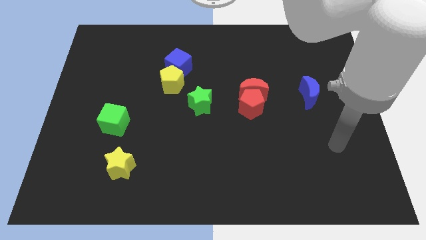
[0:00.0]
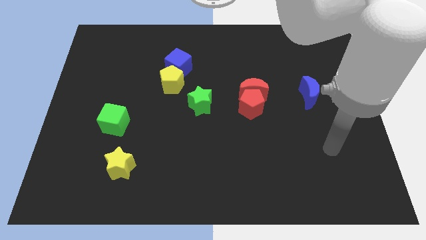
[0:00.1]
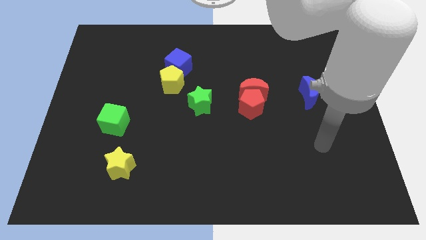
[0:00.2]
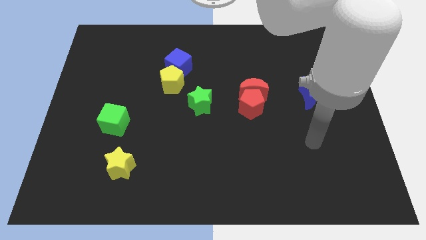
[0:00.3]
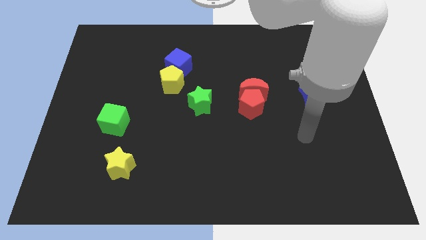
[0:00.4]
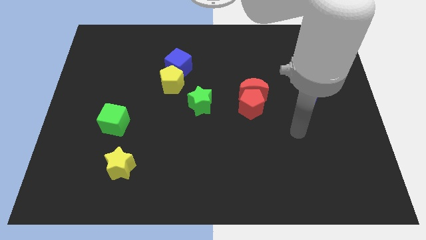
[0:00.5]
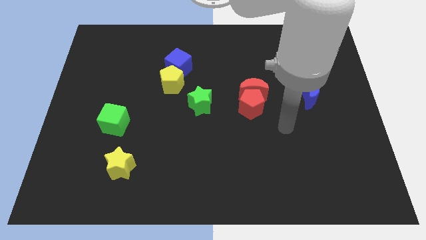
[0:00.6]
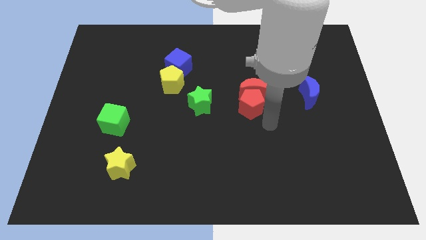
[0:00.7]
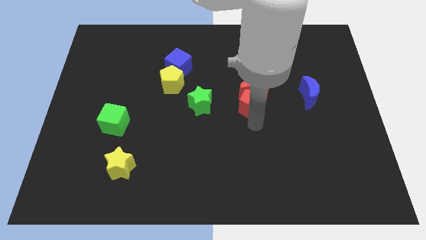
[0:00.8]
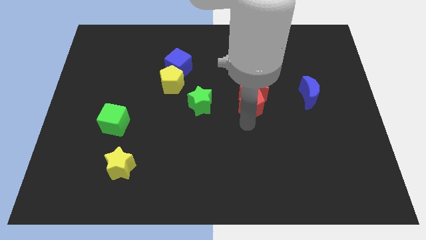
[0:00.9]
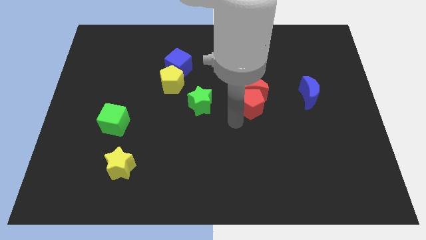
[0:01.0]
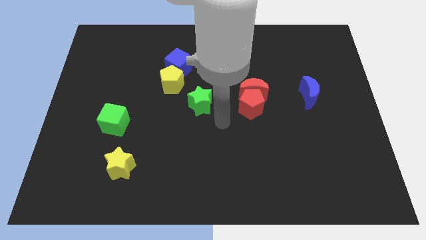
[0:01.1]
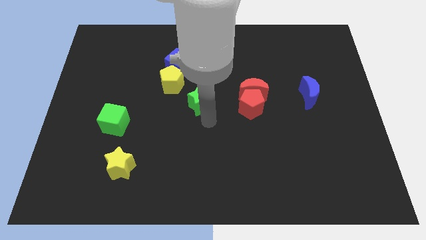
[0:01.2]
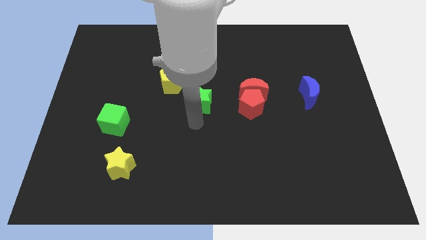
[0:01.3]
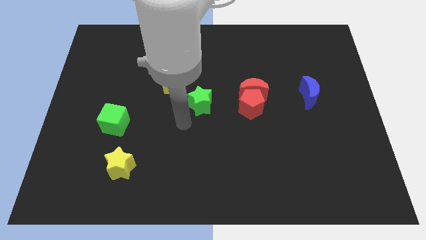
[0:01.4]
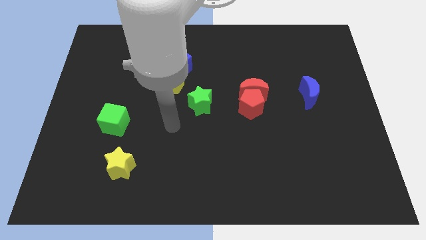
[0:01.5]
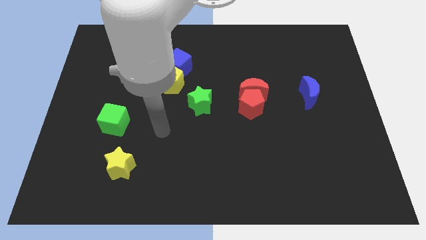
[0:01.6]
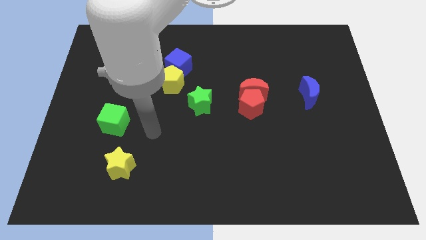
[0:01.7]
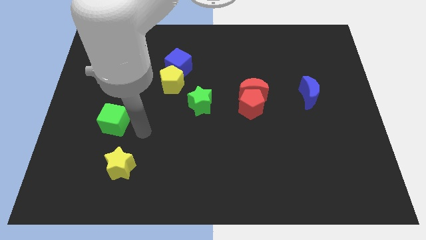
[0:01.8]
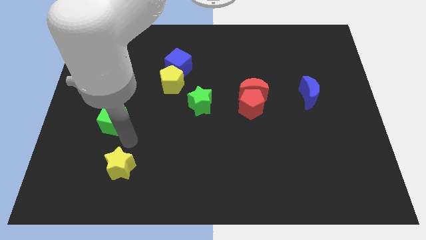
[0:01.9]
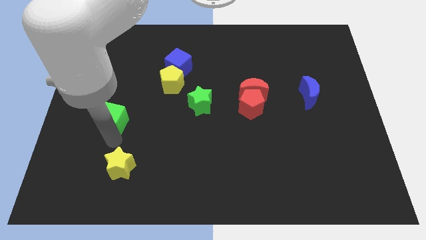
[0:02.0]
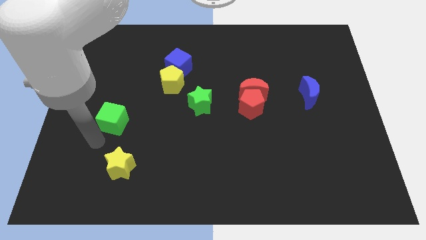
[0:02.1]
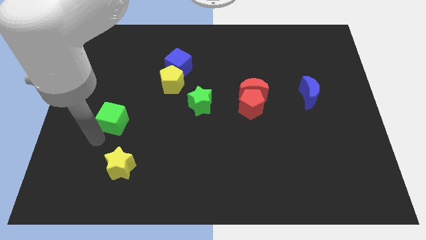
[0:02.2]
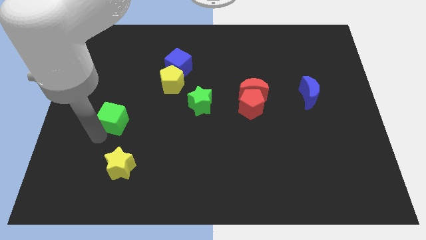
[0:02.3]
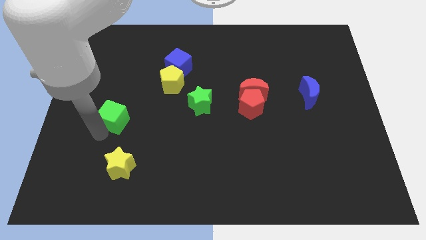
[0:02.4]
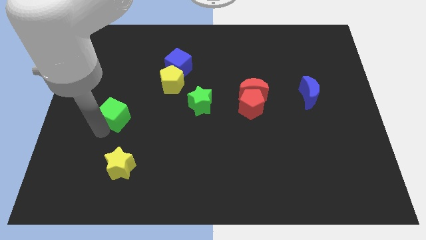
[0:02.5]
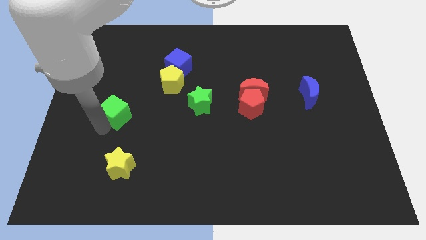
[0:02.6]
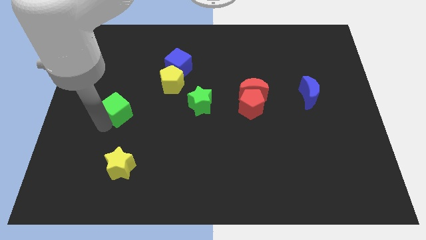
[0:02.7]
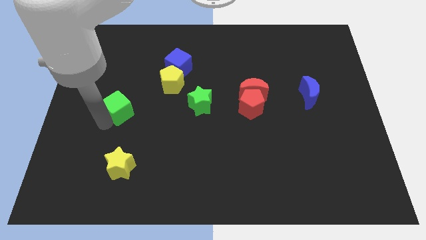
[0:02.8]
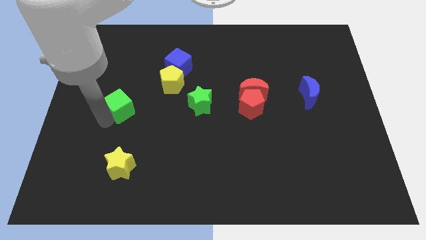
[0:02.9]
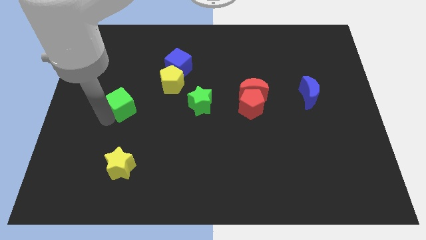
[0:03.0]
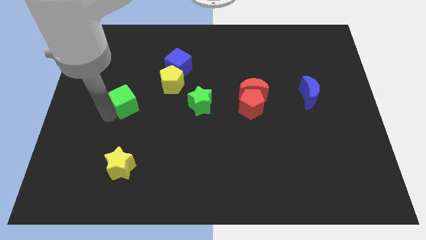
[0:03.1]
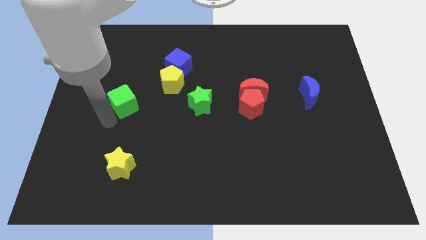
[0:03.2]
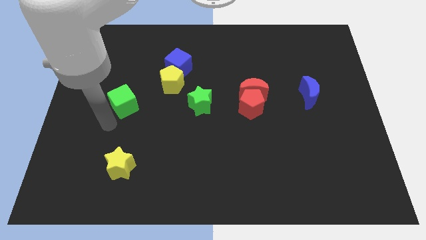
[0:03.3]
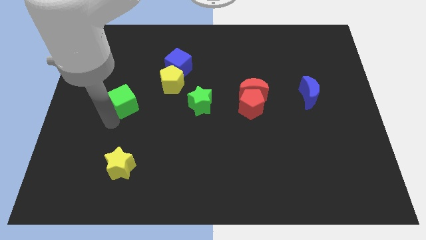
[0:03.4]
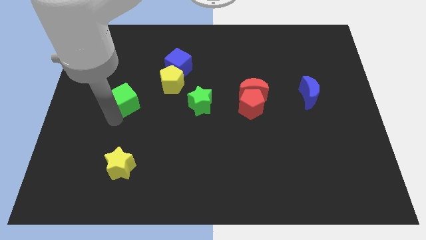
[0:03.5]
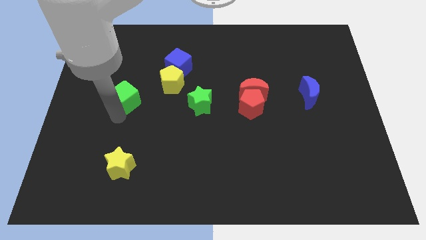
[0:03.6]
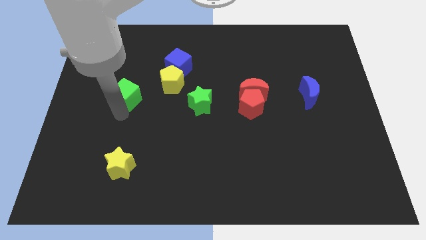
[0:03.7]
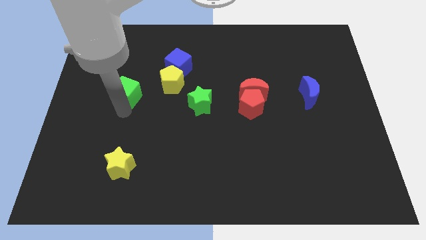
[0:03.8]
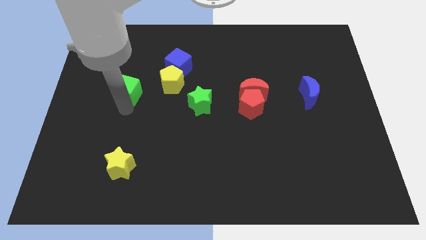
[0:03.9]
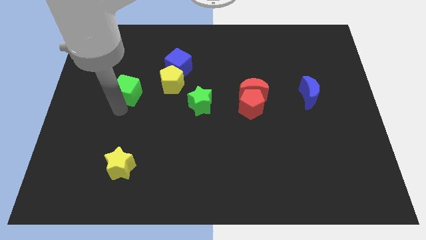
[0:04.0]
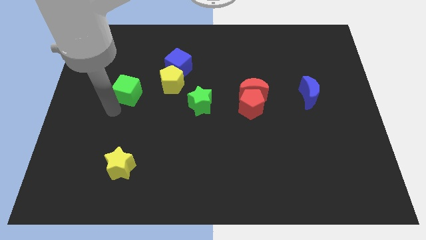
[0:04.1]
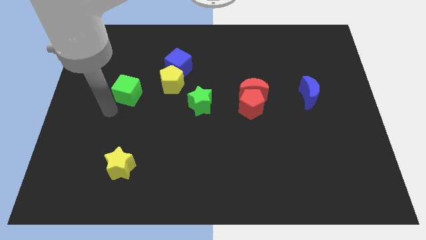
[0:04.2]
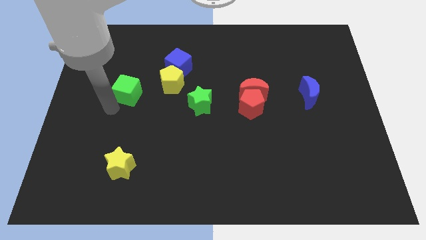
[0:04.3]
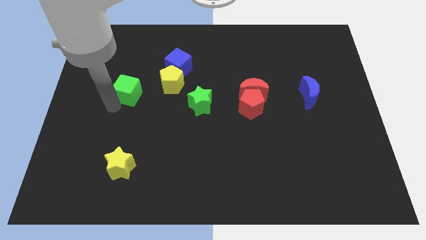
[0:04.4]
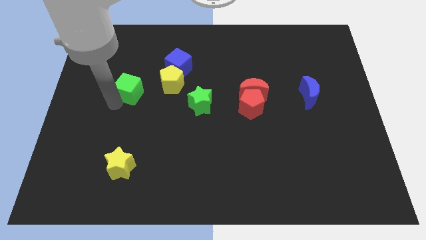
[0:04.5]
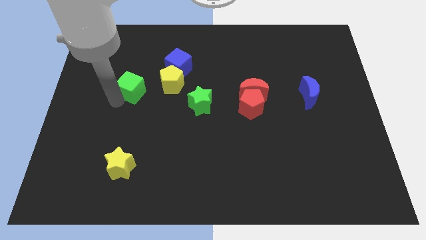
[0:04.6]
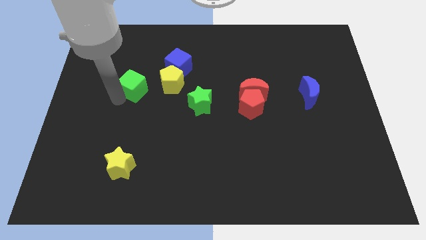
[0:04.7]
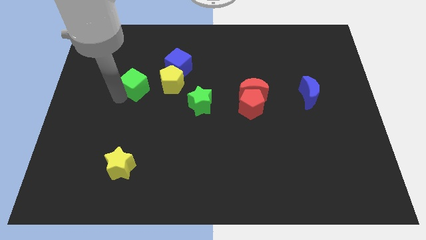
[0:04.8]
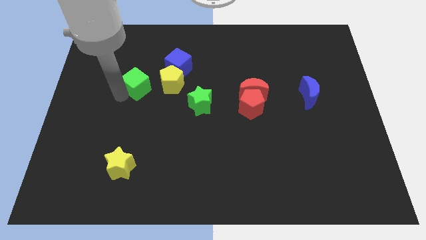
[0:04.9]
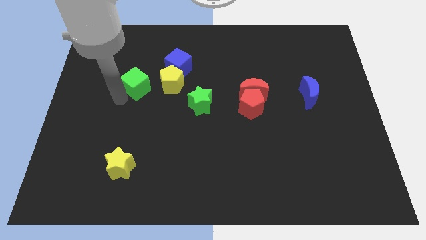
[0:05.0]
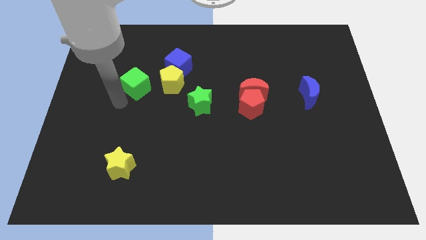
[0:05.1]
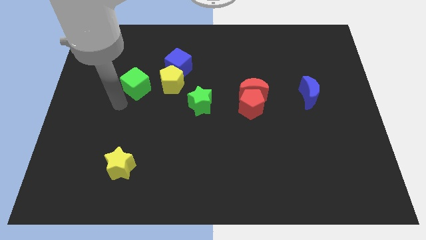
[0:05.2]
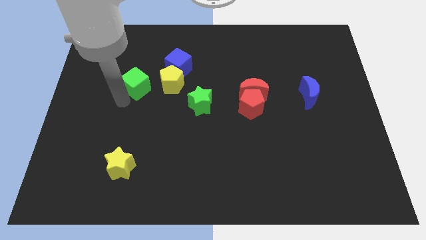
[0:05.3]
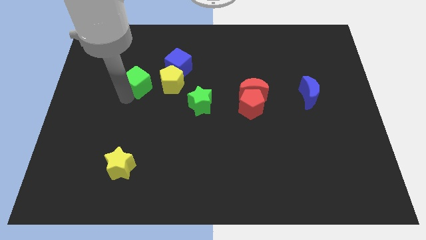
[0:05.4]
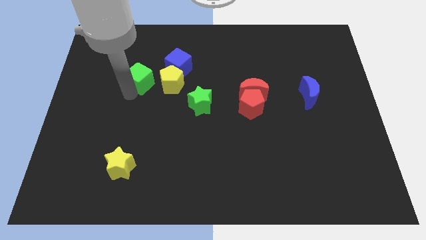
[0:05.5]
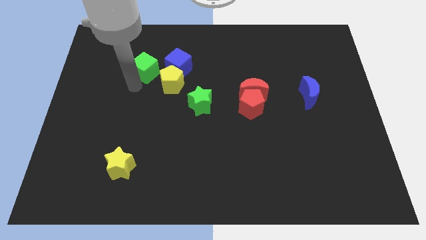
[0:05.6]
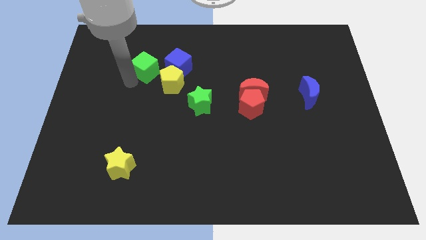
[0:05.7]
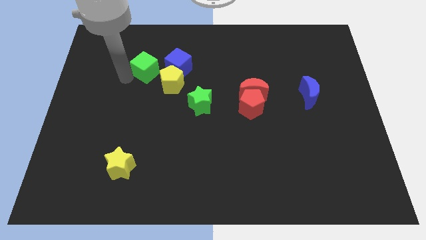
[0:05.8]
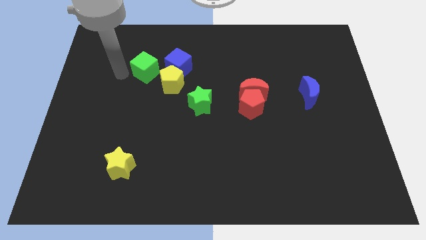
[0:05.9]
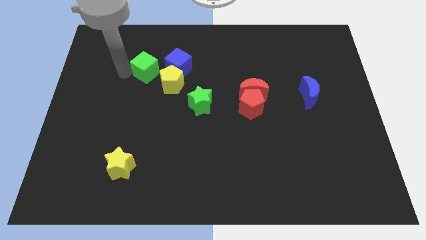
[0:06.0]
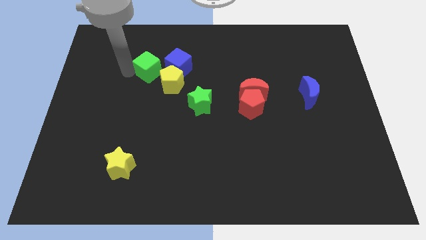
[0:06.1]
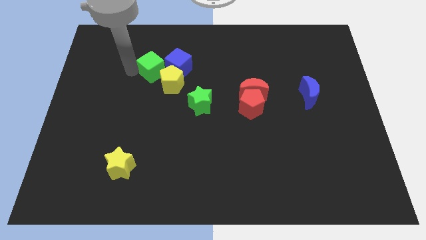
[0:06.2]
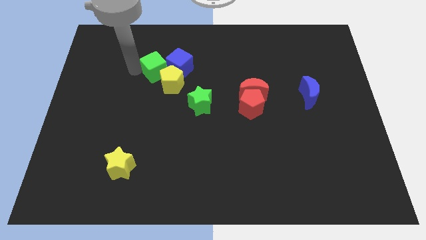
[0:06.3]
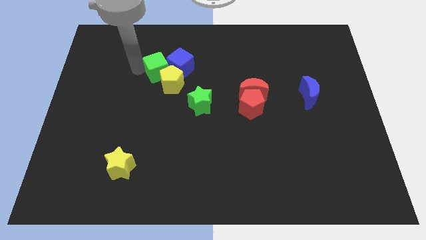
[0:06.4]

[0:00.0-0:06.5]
put the green cube towards the blue cube

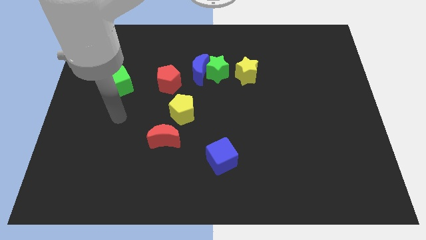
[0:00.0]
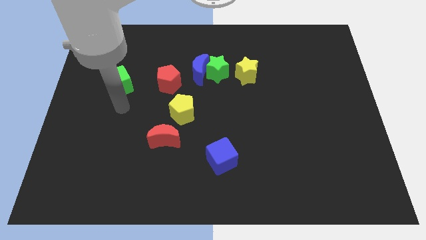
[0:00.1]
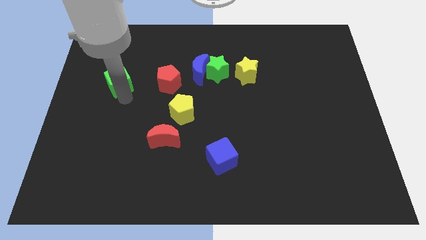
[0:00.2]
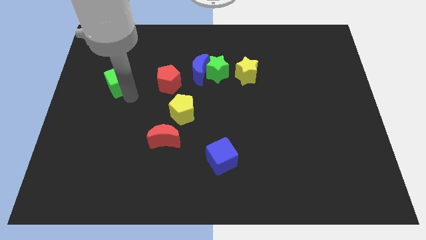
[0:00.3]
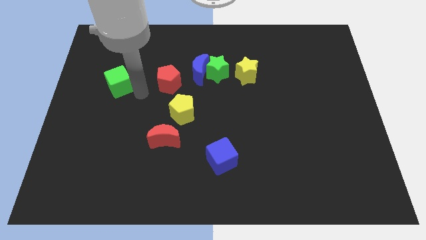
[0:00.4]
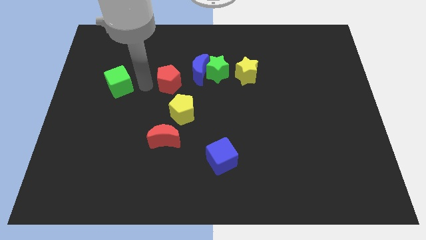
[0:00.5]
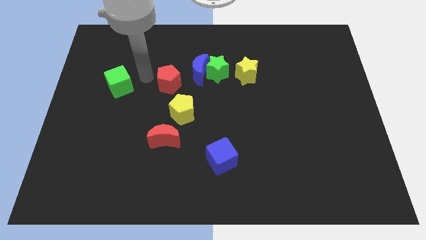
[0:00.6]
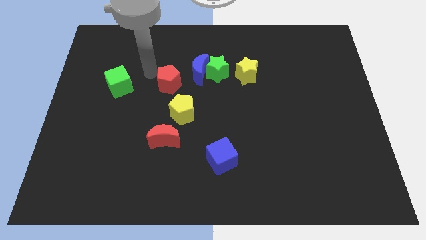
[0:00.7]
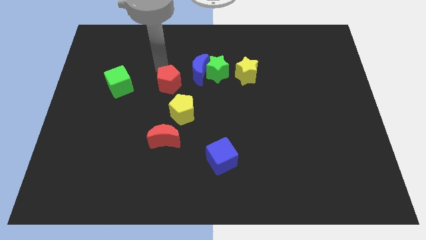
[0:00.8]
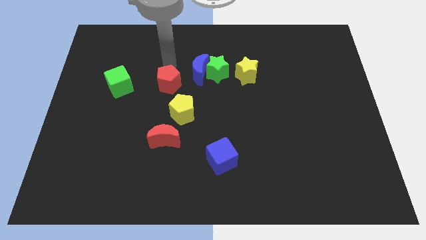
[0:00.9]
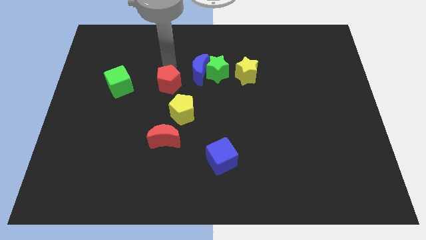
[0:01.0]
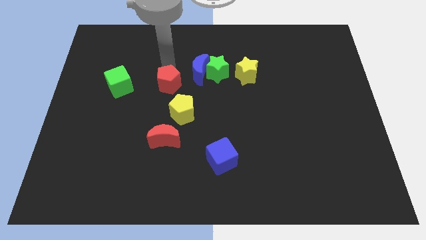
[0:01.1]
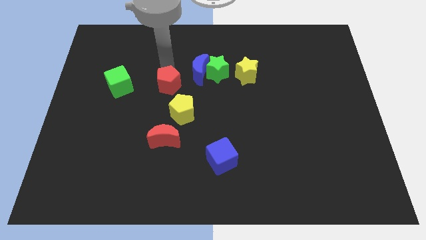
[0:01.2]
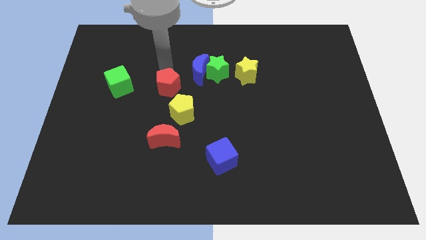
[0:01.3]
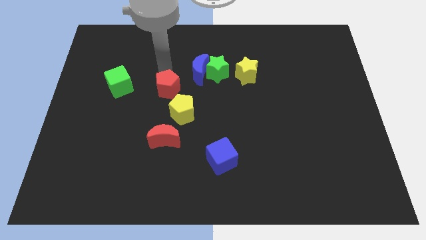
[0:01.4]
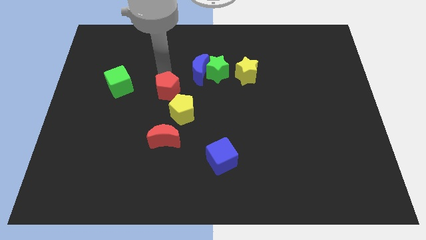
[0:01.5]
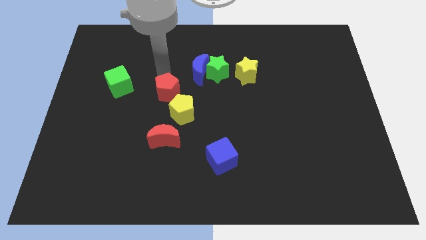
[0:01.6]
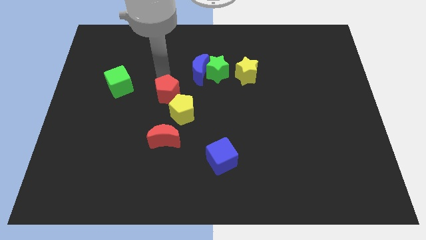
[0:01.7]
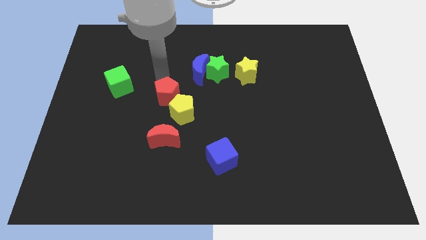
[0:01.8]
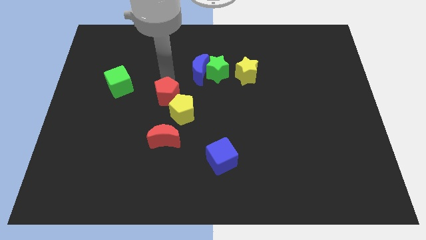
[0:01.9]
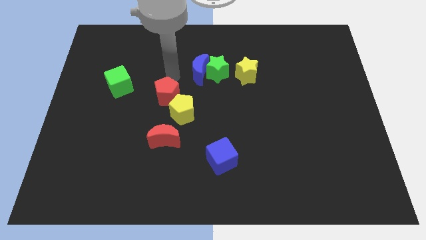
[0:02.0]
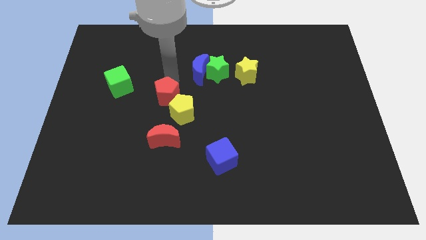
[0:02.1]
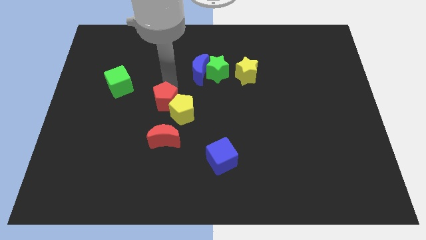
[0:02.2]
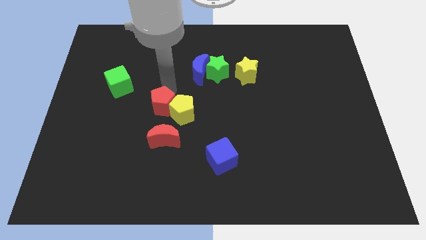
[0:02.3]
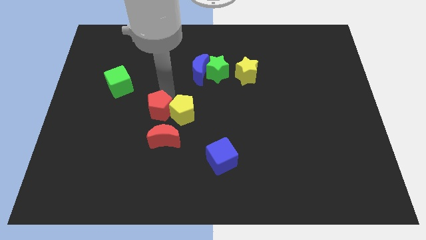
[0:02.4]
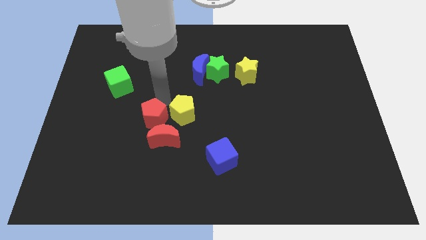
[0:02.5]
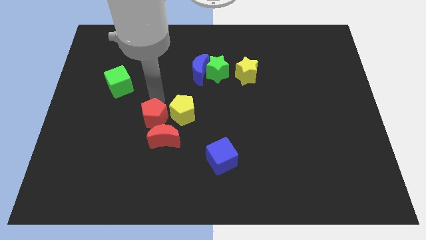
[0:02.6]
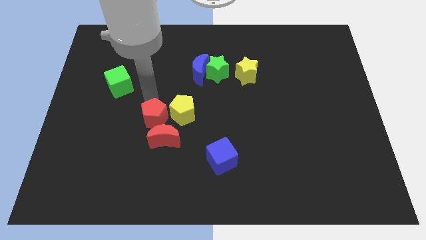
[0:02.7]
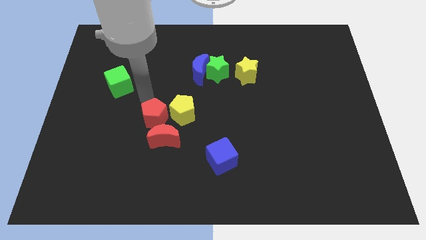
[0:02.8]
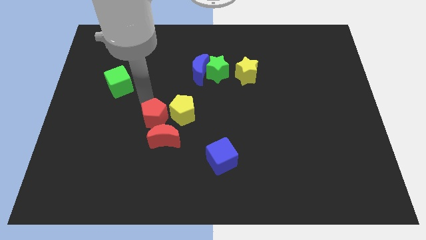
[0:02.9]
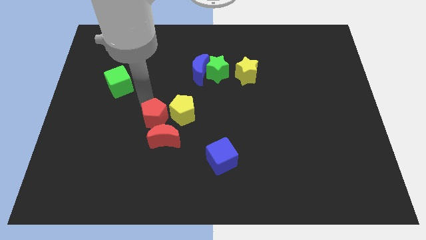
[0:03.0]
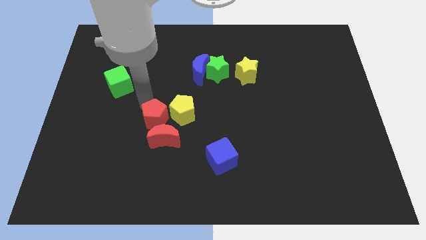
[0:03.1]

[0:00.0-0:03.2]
slide the red pentagon towards the red moon
